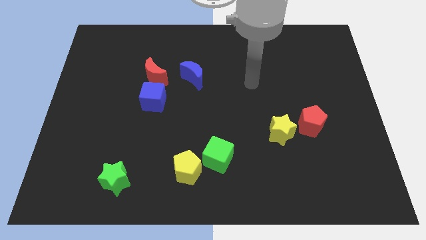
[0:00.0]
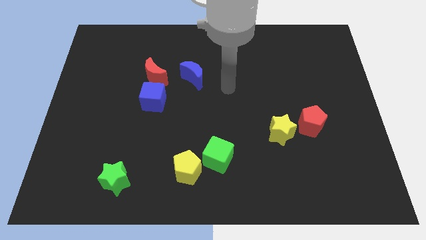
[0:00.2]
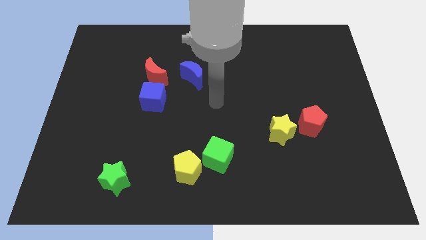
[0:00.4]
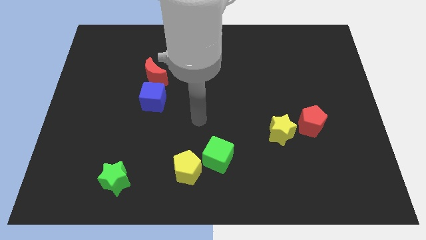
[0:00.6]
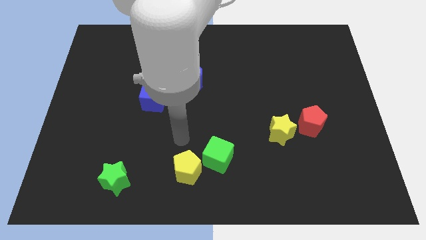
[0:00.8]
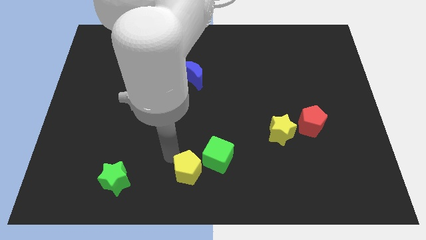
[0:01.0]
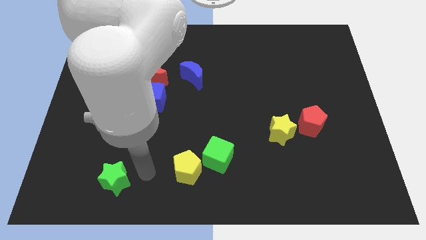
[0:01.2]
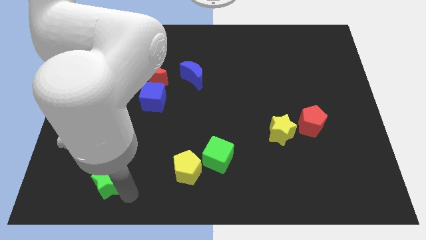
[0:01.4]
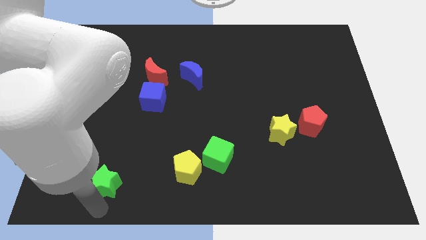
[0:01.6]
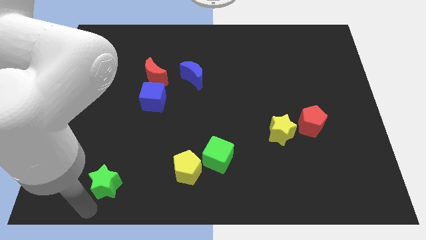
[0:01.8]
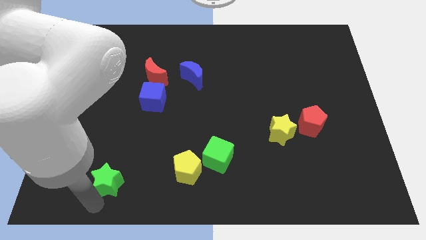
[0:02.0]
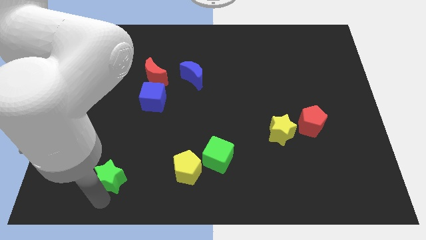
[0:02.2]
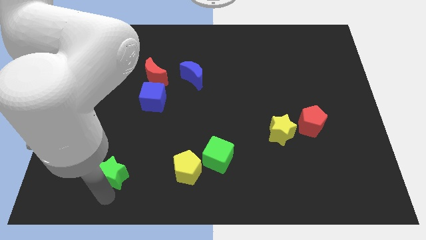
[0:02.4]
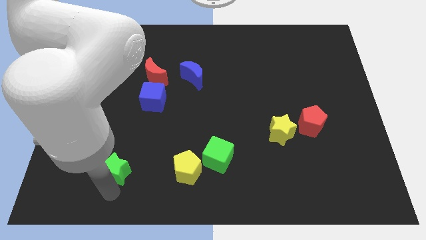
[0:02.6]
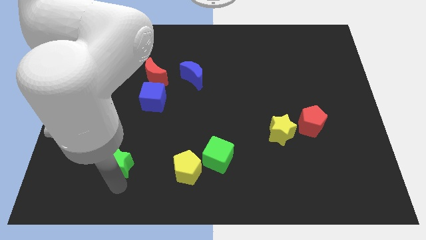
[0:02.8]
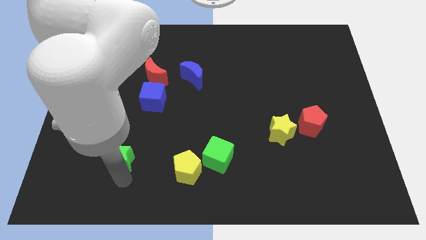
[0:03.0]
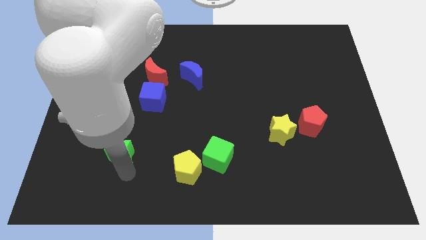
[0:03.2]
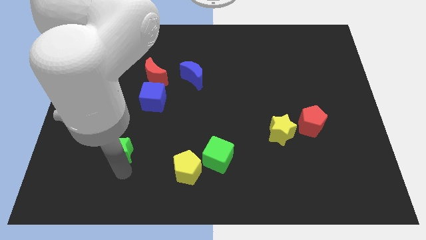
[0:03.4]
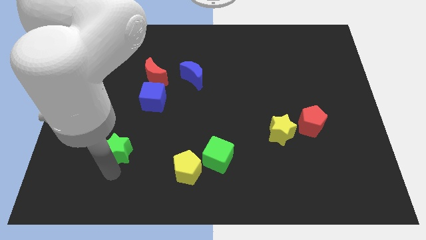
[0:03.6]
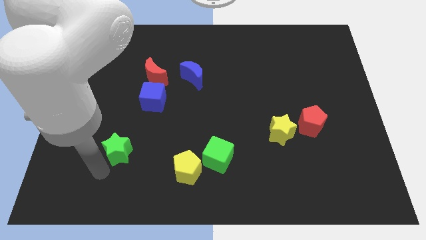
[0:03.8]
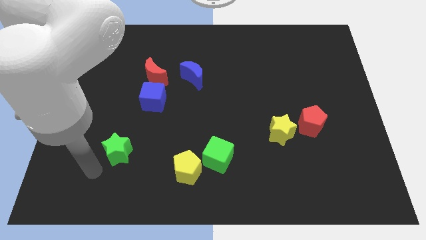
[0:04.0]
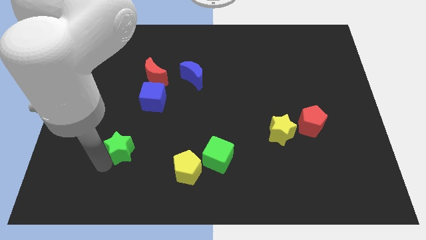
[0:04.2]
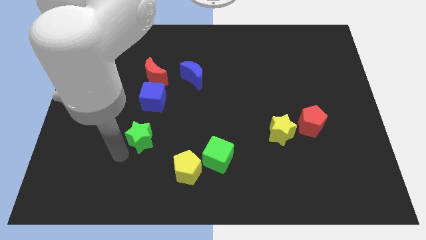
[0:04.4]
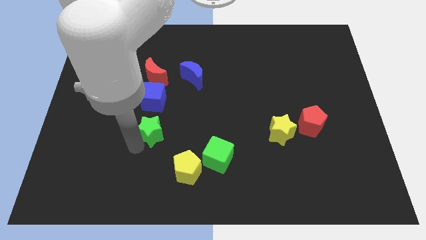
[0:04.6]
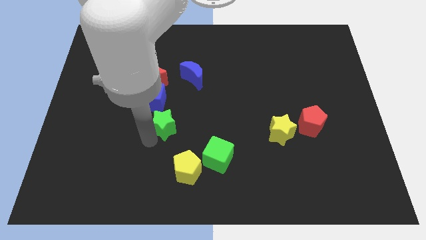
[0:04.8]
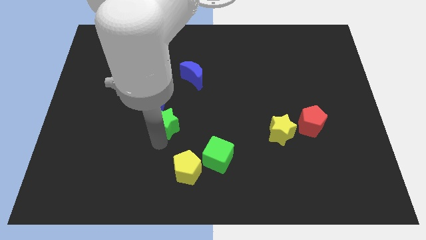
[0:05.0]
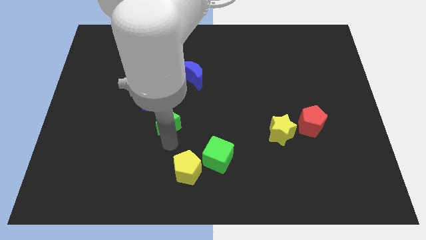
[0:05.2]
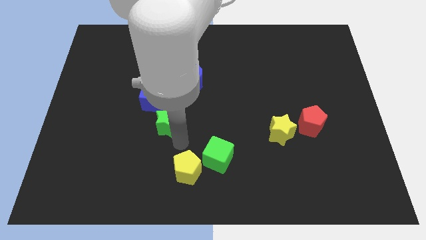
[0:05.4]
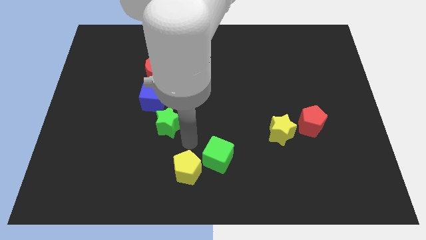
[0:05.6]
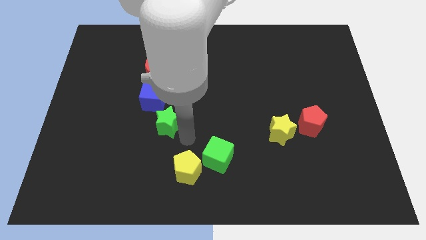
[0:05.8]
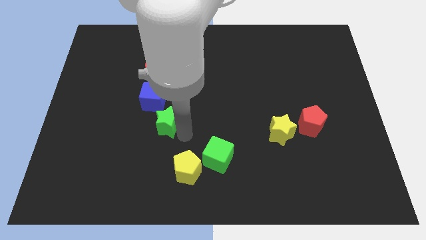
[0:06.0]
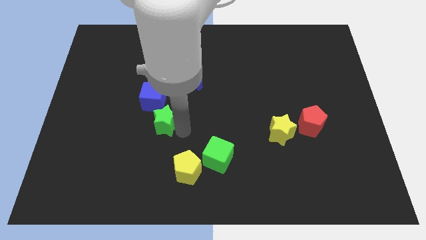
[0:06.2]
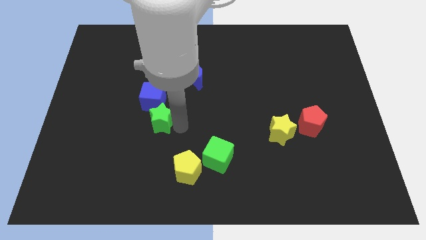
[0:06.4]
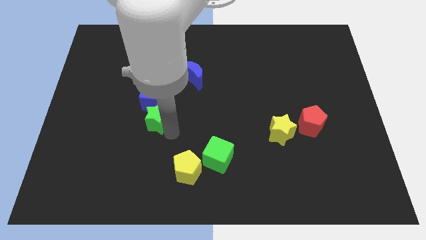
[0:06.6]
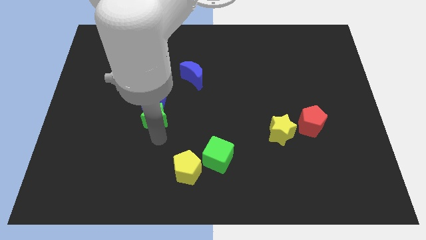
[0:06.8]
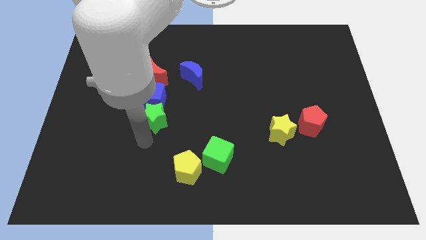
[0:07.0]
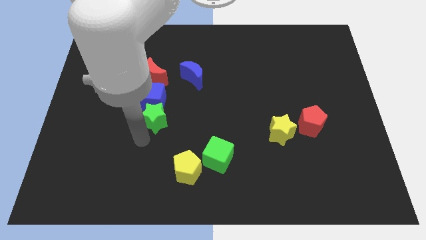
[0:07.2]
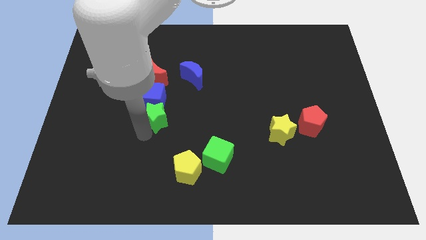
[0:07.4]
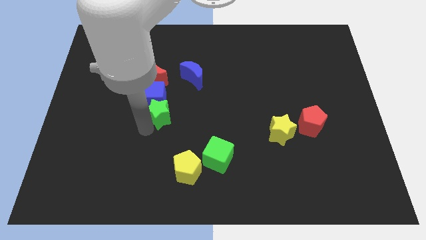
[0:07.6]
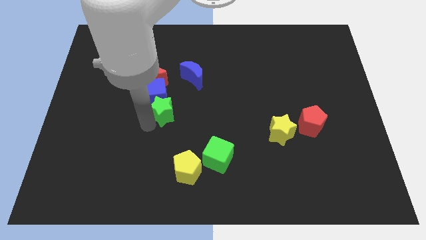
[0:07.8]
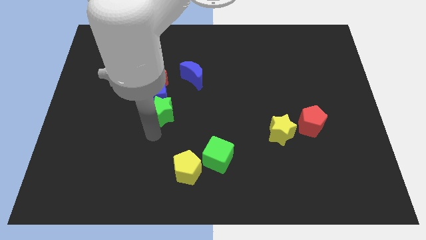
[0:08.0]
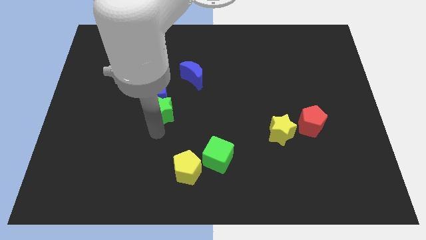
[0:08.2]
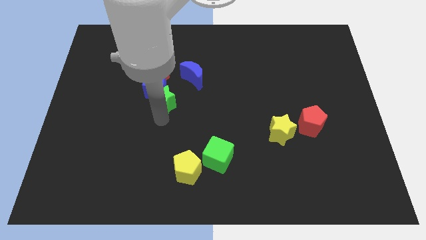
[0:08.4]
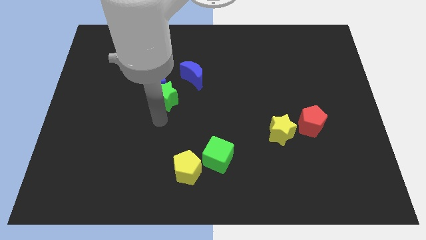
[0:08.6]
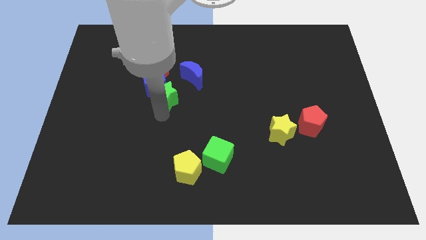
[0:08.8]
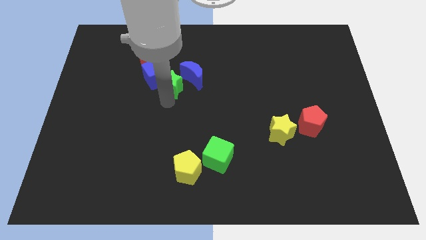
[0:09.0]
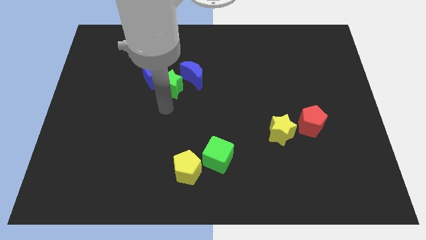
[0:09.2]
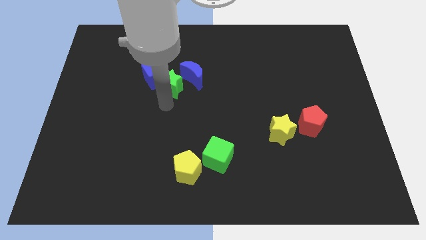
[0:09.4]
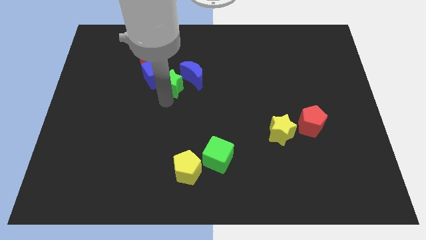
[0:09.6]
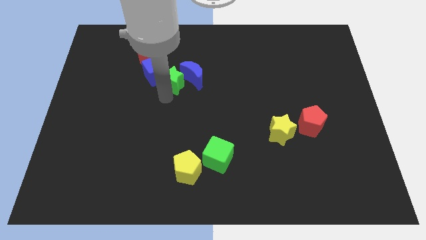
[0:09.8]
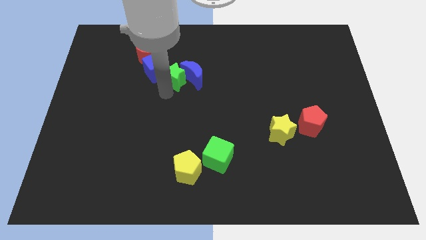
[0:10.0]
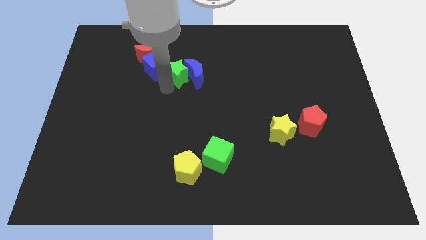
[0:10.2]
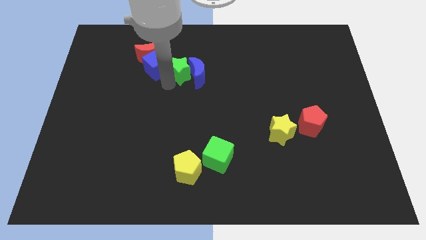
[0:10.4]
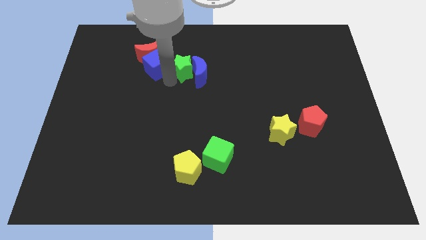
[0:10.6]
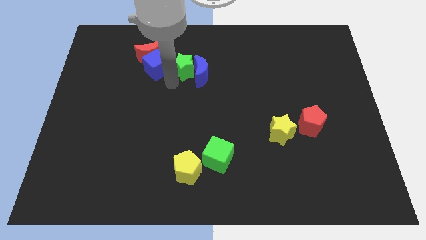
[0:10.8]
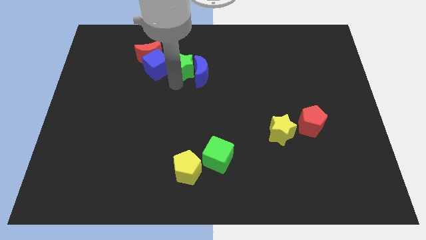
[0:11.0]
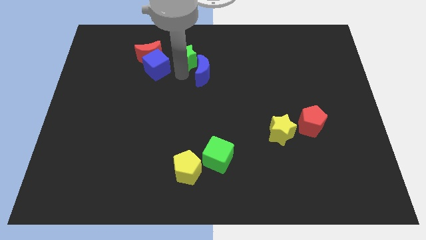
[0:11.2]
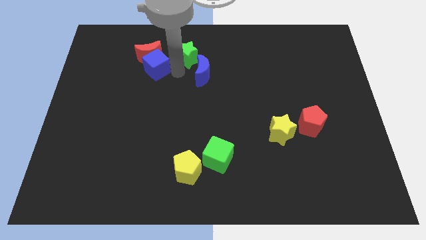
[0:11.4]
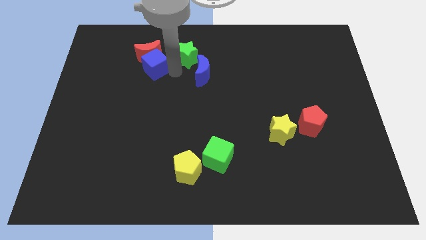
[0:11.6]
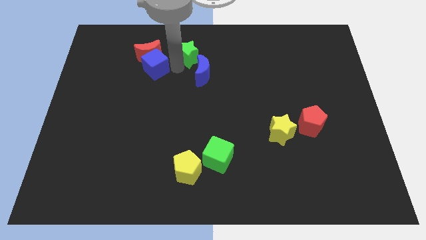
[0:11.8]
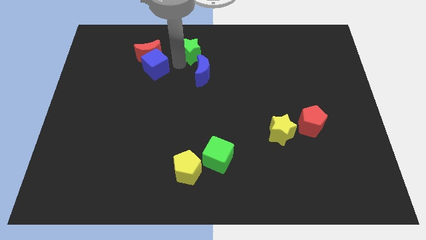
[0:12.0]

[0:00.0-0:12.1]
move the green star to the top
